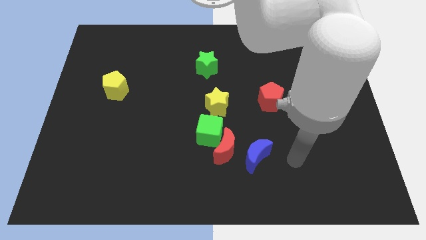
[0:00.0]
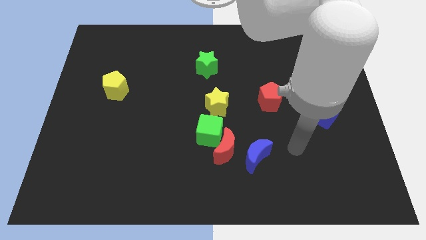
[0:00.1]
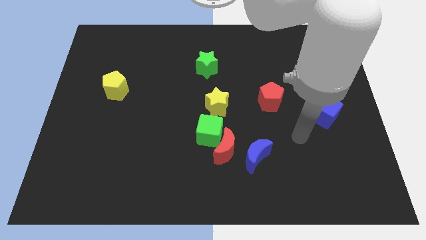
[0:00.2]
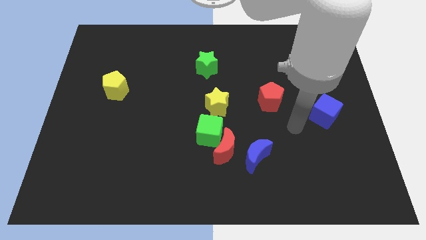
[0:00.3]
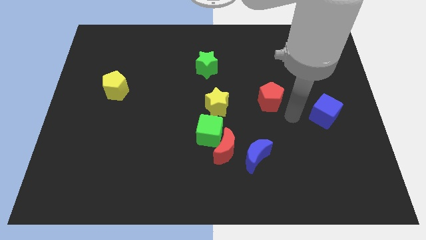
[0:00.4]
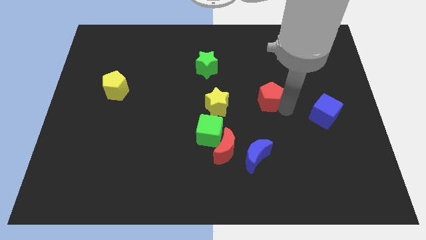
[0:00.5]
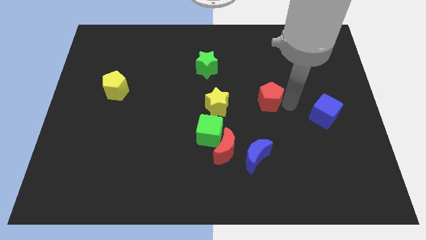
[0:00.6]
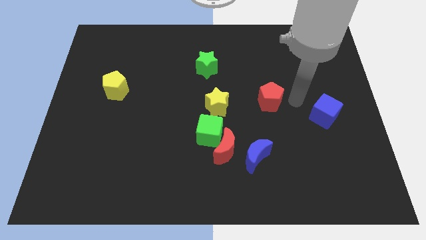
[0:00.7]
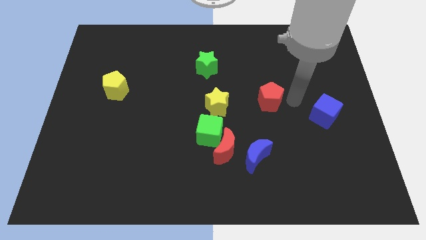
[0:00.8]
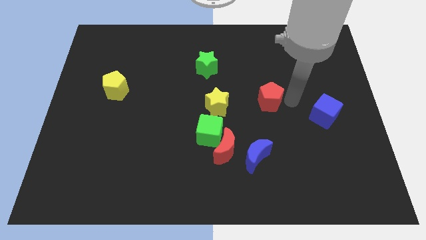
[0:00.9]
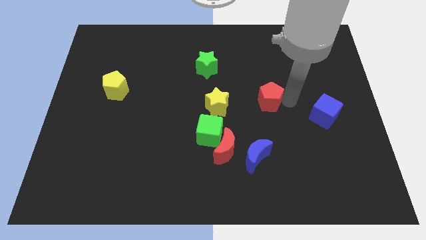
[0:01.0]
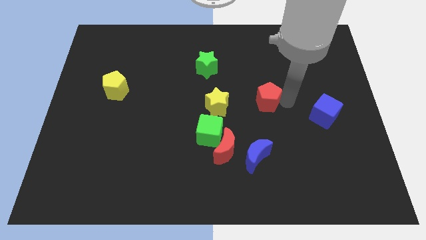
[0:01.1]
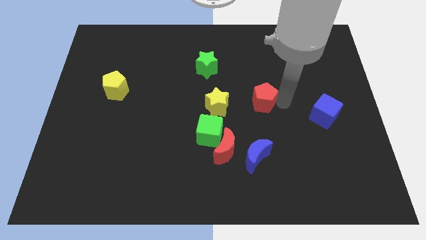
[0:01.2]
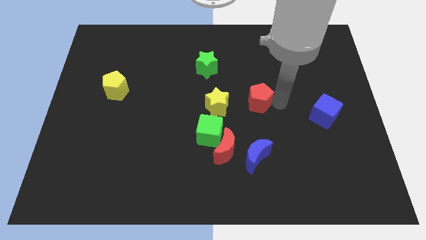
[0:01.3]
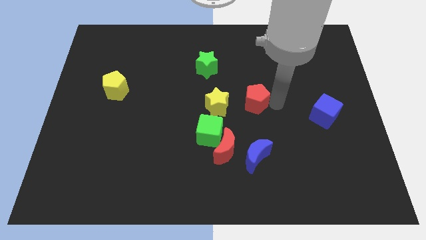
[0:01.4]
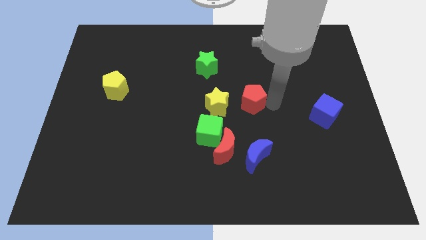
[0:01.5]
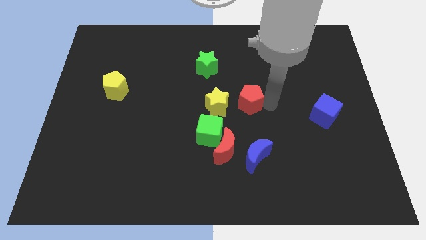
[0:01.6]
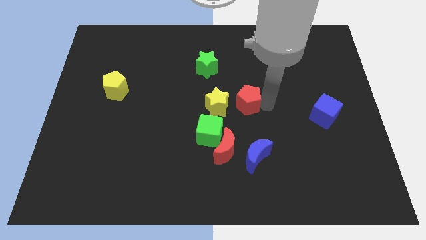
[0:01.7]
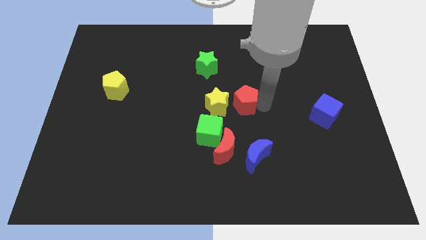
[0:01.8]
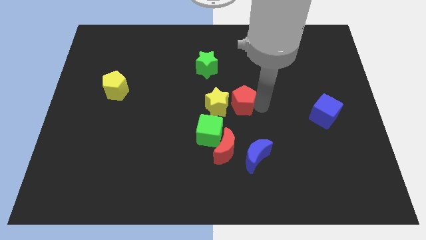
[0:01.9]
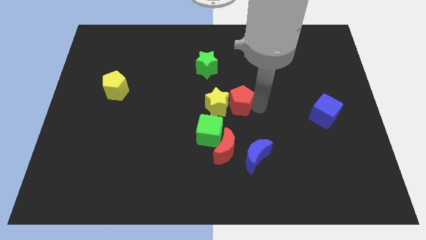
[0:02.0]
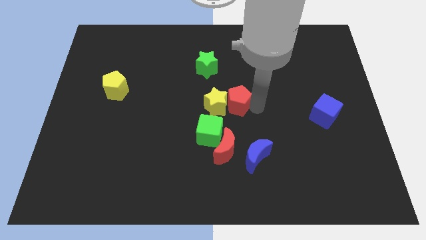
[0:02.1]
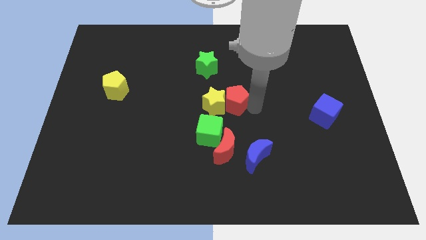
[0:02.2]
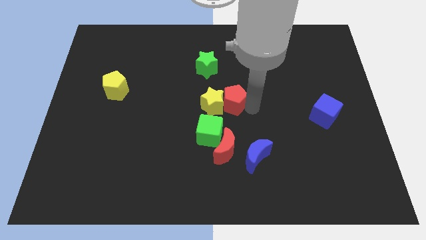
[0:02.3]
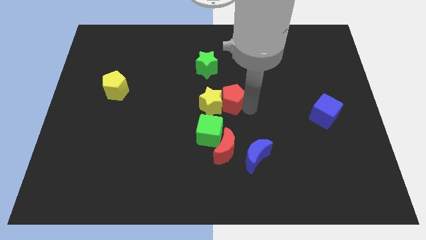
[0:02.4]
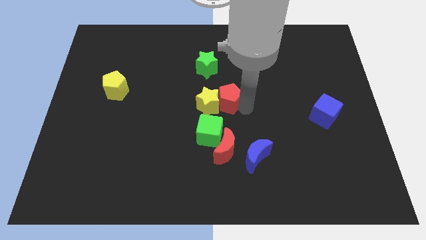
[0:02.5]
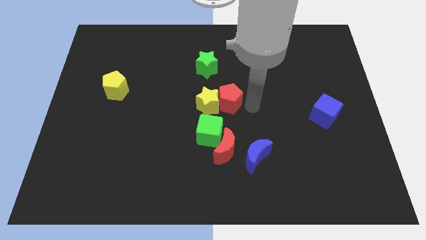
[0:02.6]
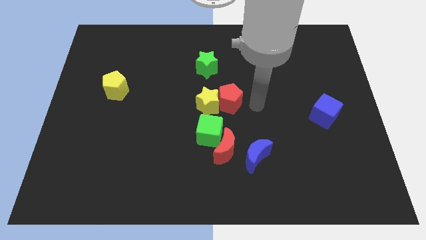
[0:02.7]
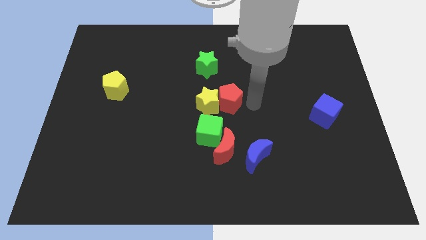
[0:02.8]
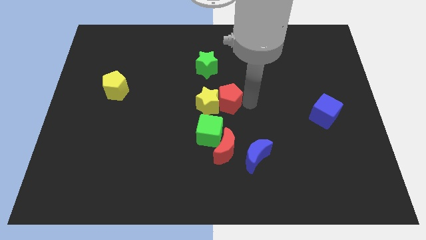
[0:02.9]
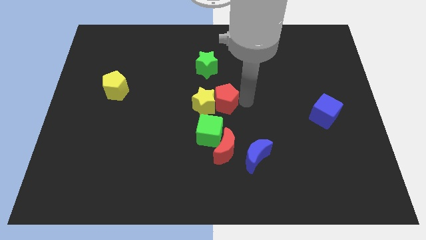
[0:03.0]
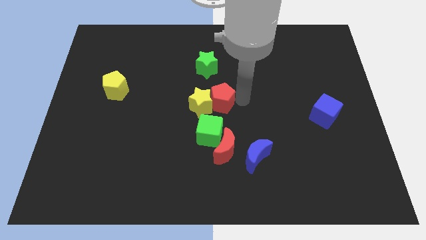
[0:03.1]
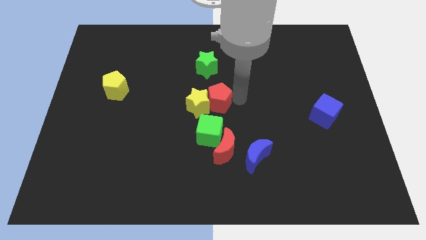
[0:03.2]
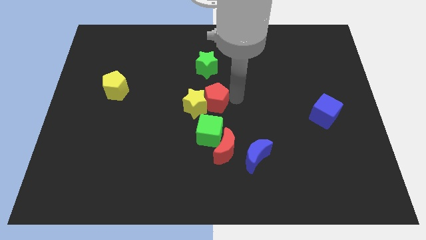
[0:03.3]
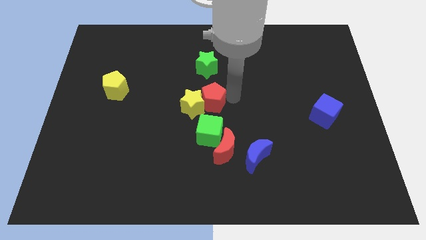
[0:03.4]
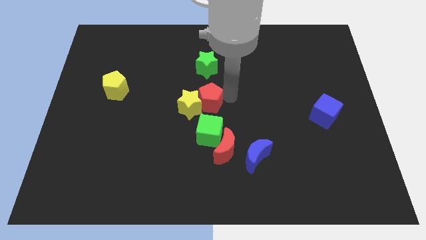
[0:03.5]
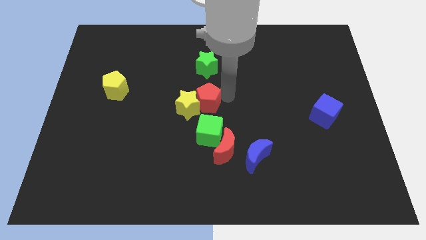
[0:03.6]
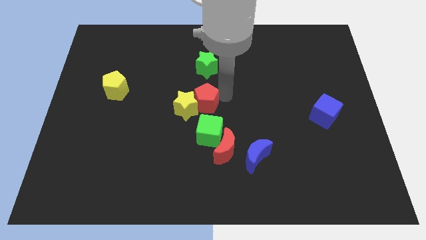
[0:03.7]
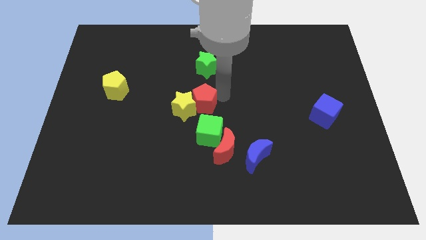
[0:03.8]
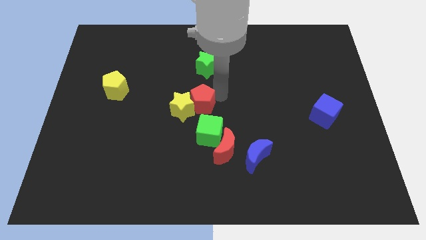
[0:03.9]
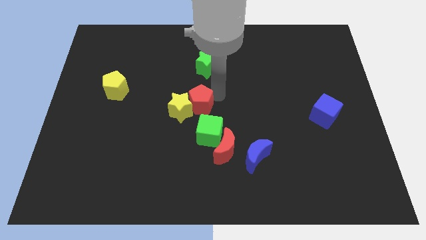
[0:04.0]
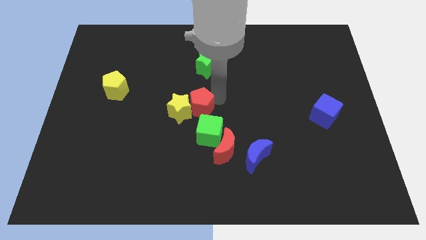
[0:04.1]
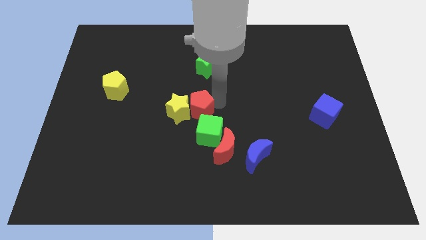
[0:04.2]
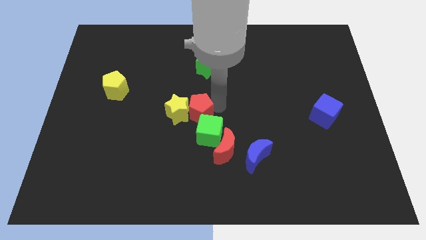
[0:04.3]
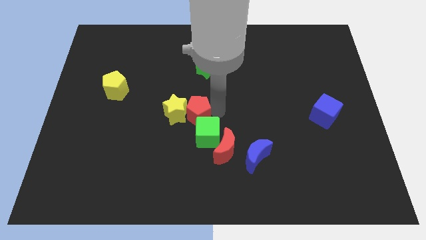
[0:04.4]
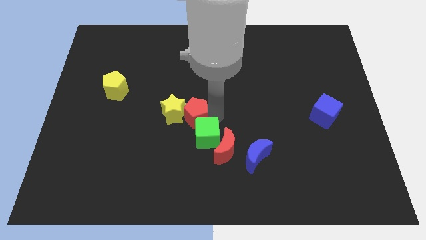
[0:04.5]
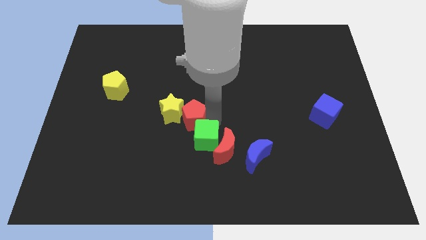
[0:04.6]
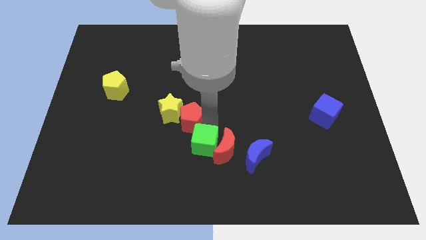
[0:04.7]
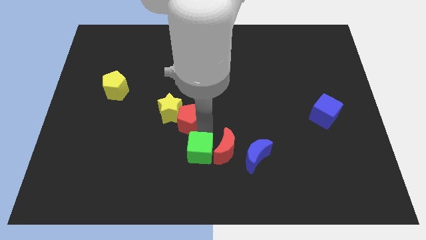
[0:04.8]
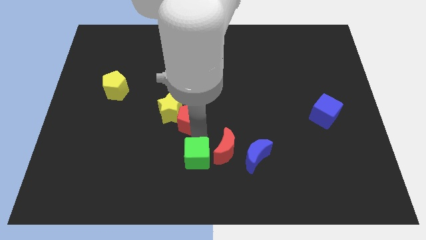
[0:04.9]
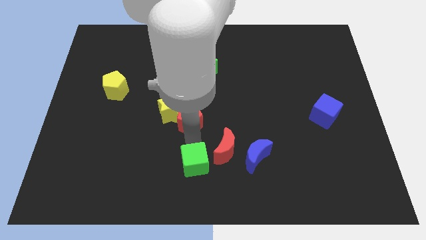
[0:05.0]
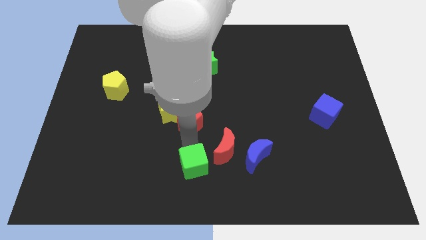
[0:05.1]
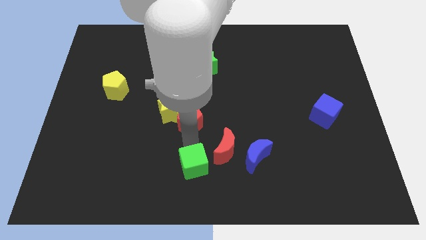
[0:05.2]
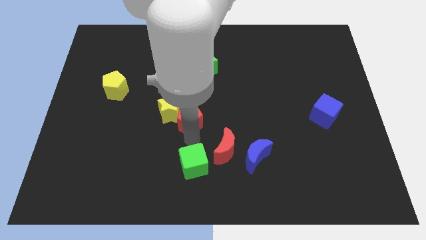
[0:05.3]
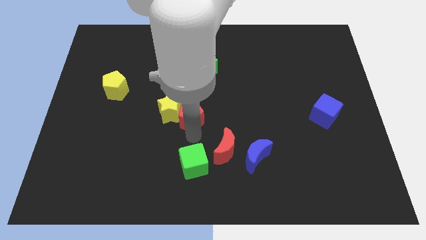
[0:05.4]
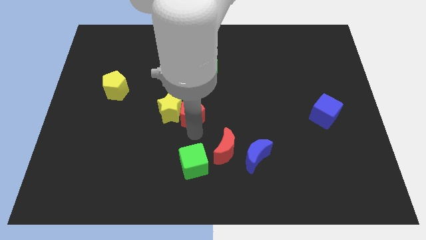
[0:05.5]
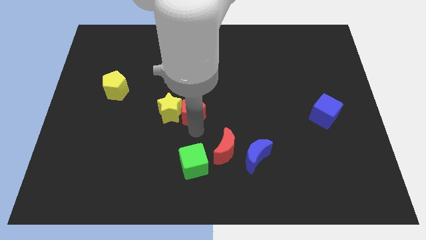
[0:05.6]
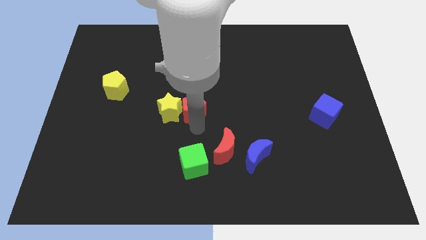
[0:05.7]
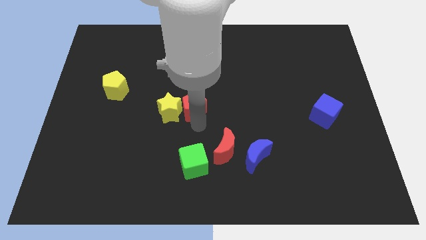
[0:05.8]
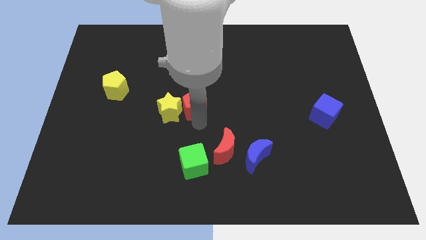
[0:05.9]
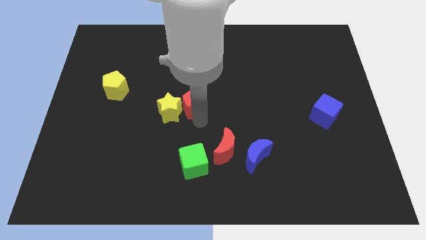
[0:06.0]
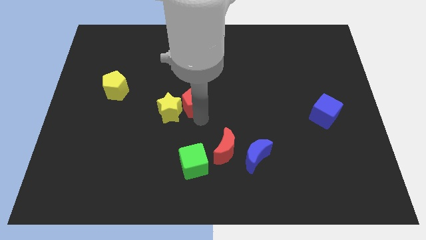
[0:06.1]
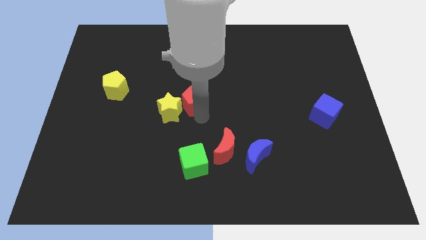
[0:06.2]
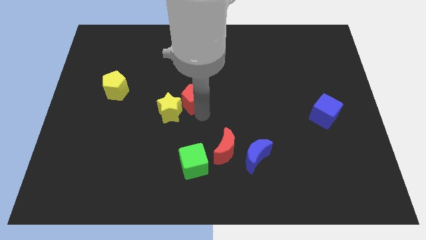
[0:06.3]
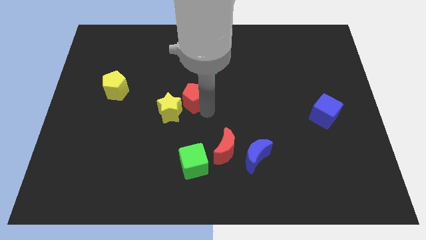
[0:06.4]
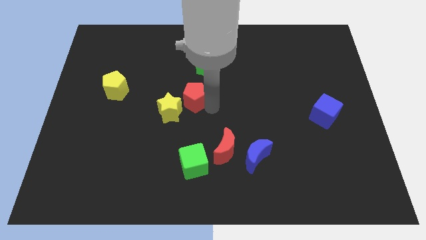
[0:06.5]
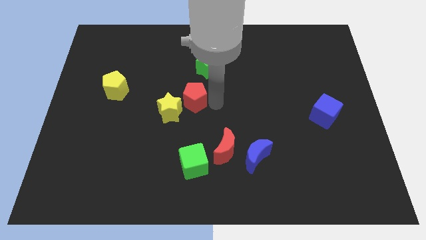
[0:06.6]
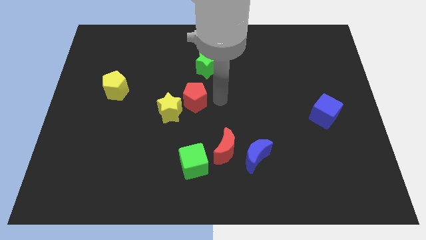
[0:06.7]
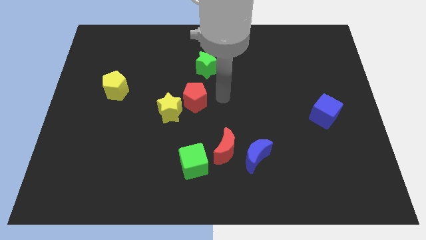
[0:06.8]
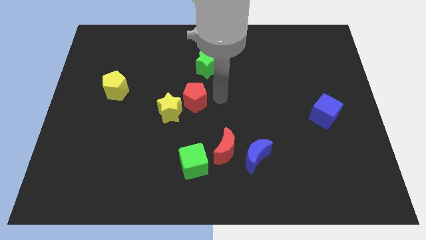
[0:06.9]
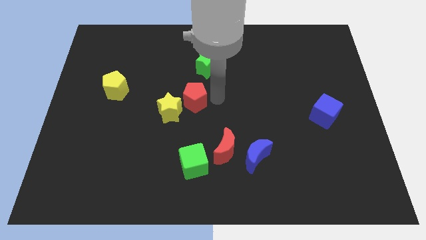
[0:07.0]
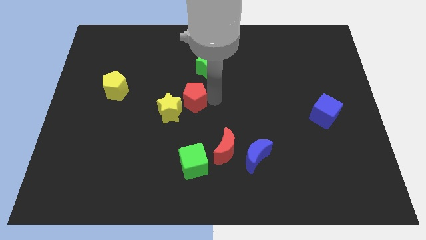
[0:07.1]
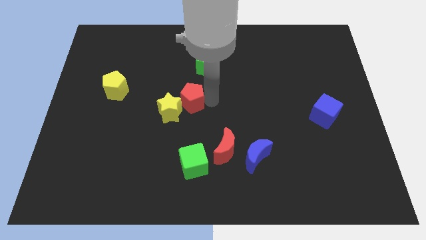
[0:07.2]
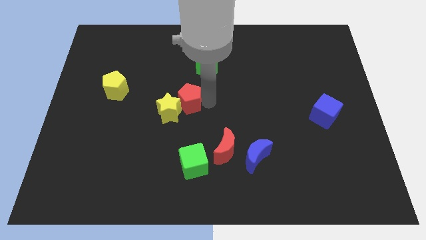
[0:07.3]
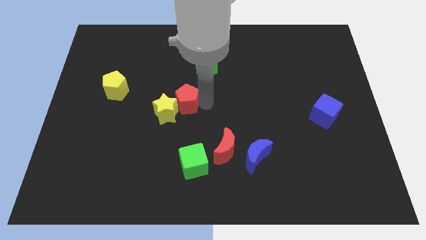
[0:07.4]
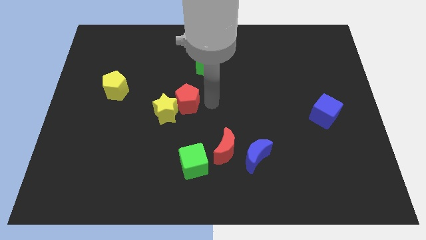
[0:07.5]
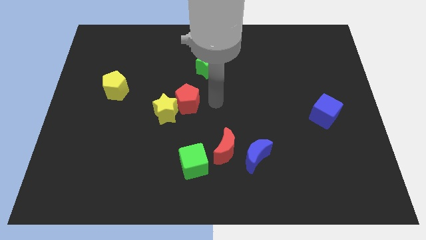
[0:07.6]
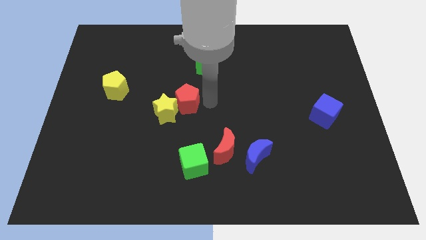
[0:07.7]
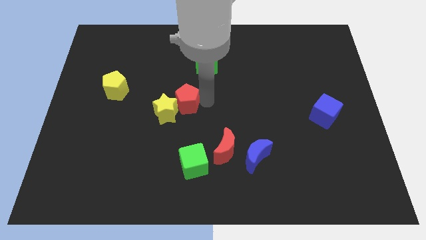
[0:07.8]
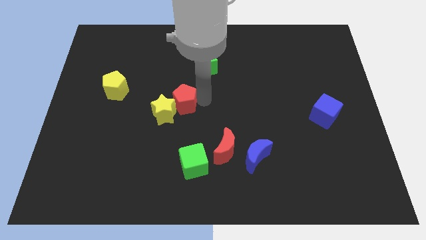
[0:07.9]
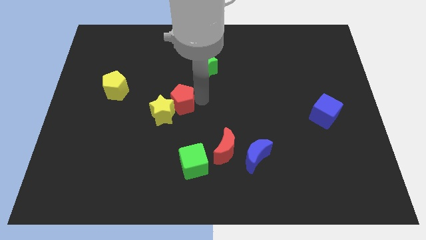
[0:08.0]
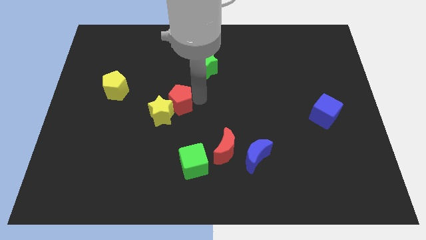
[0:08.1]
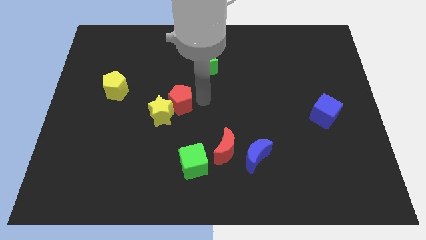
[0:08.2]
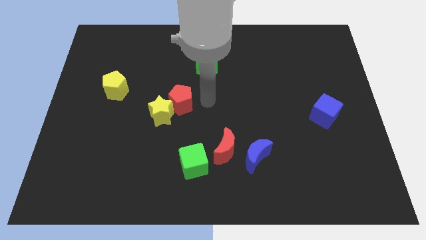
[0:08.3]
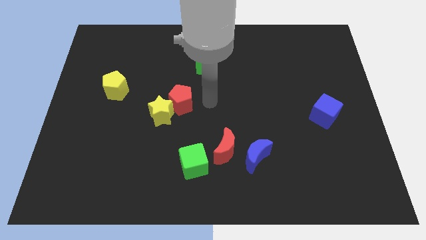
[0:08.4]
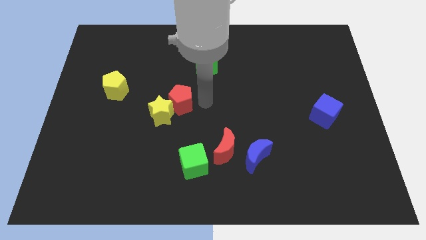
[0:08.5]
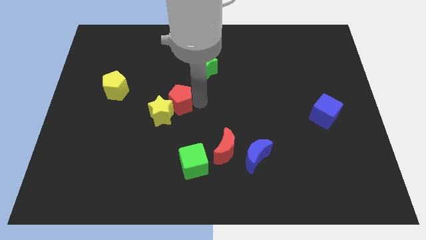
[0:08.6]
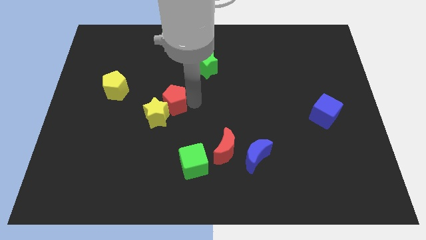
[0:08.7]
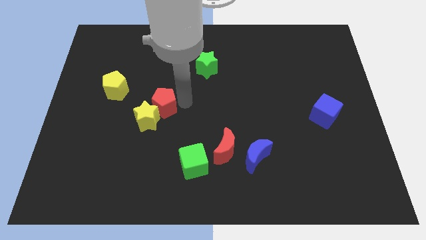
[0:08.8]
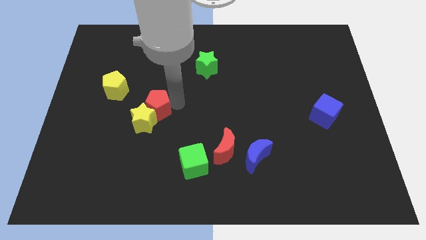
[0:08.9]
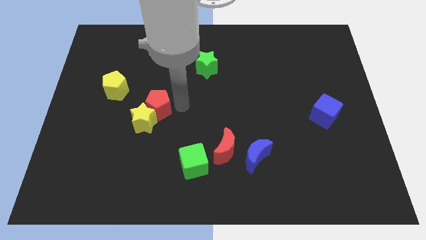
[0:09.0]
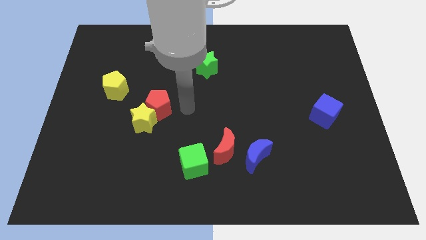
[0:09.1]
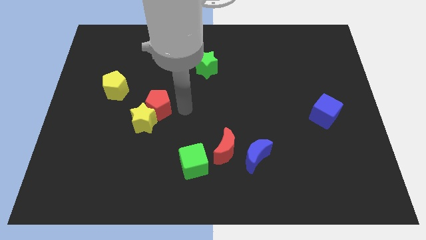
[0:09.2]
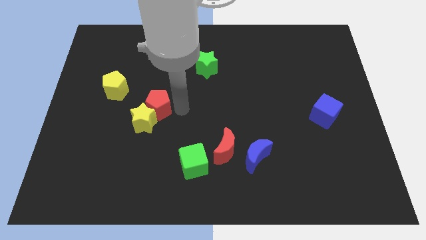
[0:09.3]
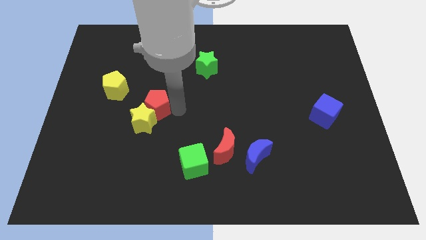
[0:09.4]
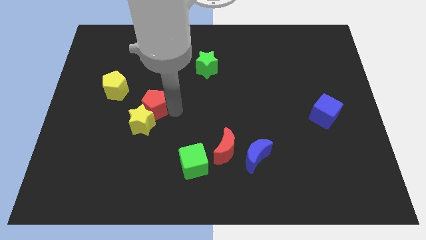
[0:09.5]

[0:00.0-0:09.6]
put the red pentagon diagonally down and to the right of the yellow pentagon
